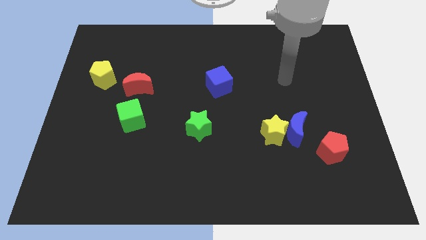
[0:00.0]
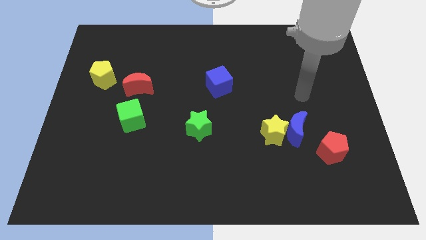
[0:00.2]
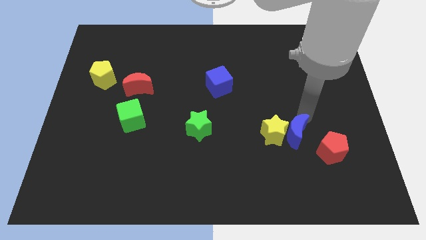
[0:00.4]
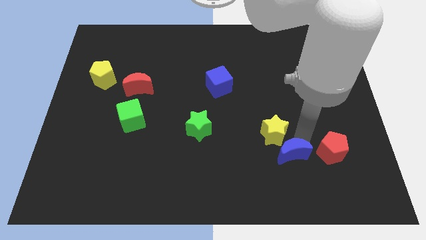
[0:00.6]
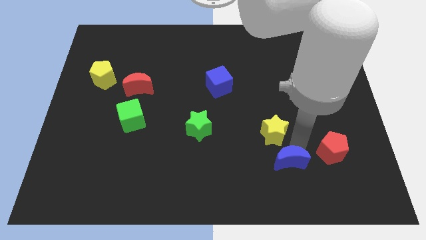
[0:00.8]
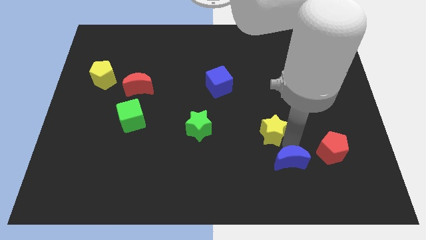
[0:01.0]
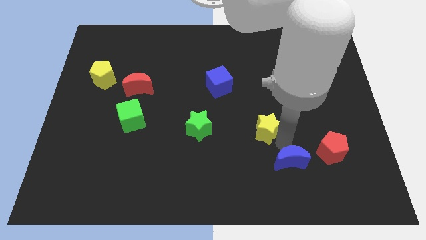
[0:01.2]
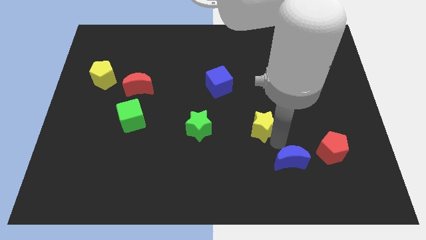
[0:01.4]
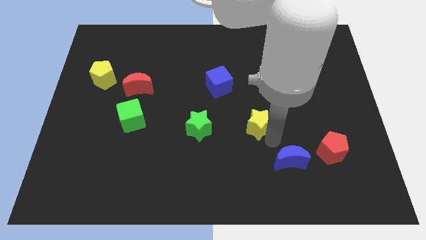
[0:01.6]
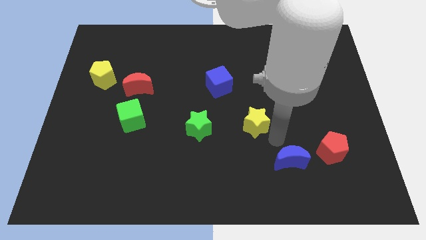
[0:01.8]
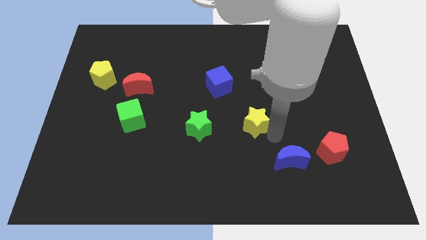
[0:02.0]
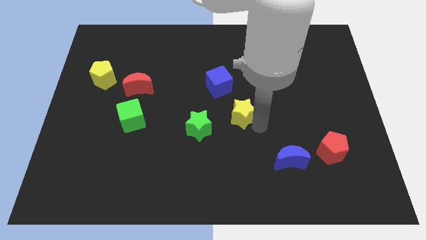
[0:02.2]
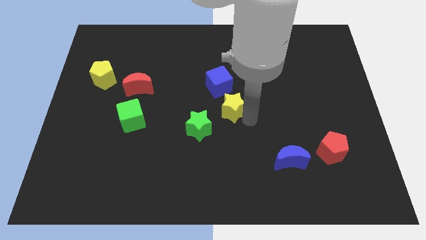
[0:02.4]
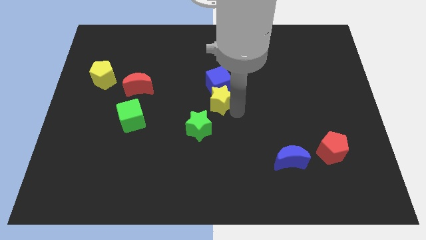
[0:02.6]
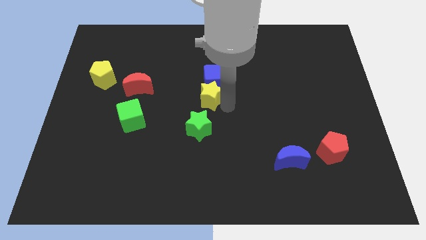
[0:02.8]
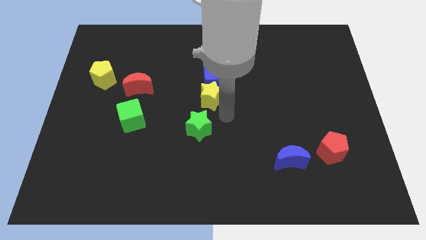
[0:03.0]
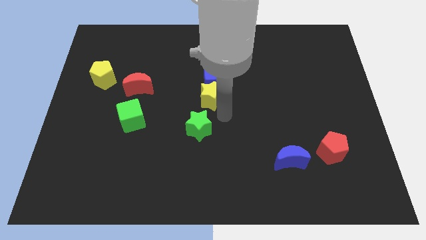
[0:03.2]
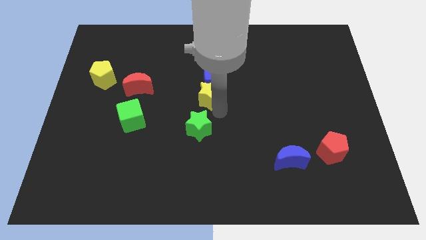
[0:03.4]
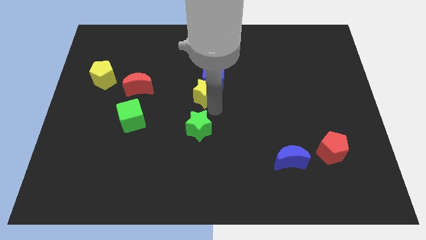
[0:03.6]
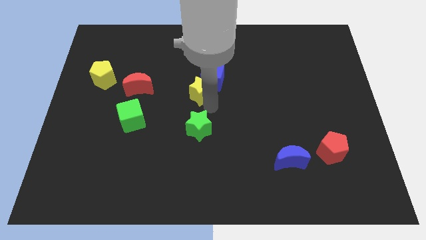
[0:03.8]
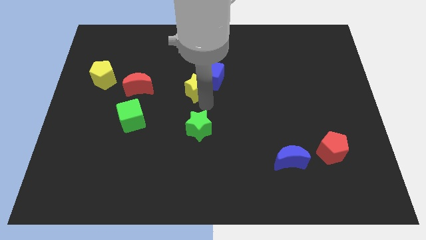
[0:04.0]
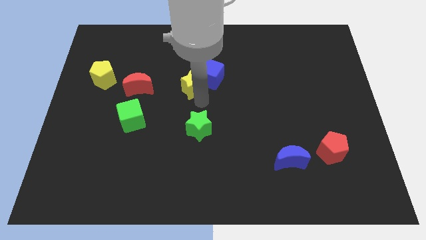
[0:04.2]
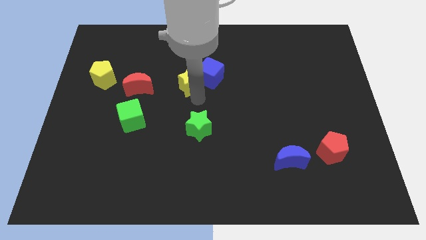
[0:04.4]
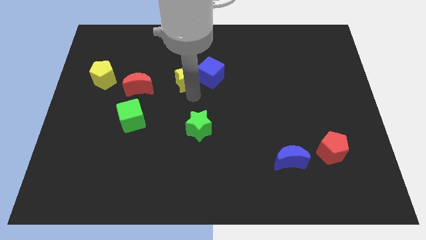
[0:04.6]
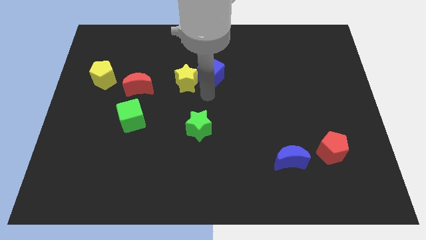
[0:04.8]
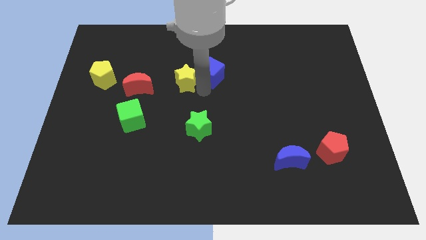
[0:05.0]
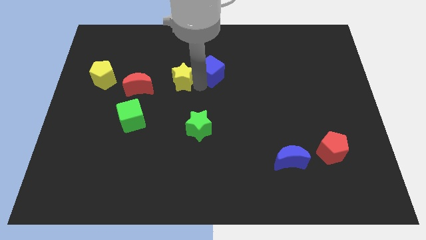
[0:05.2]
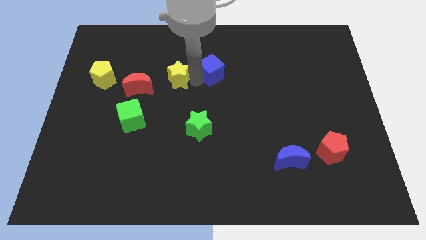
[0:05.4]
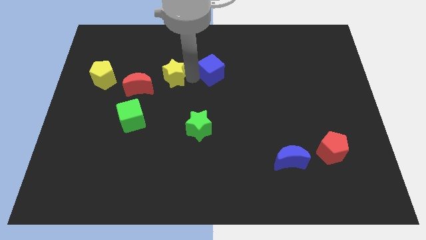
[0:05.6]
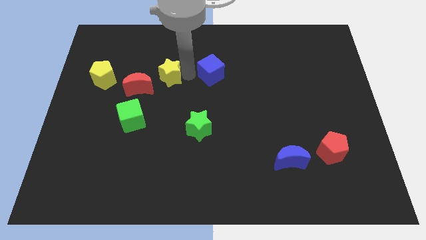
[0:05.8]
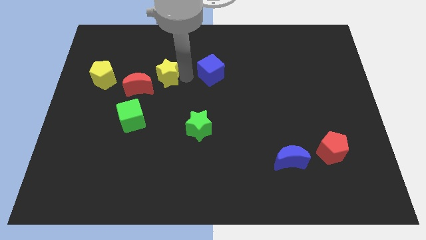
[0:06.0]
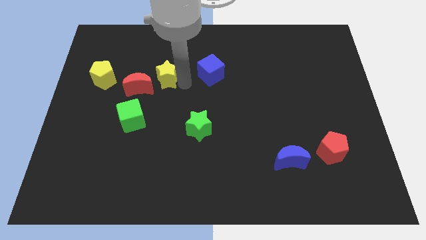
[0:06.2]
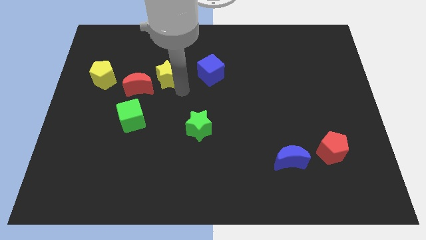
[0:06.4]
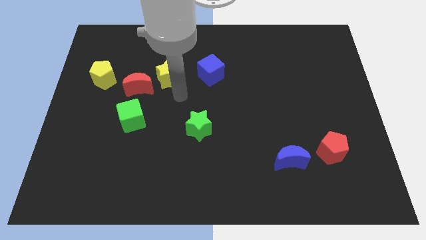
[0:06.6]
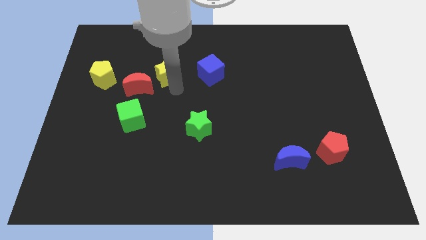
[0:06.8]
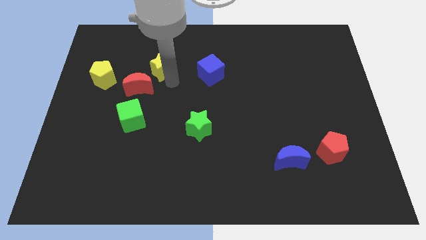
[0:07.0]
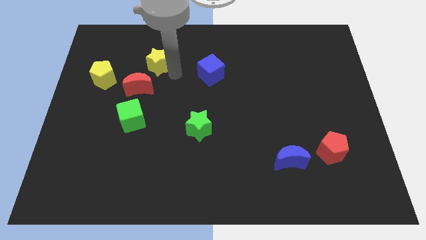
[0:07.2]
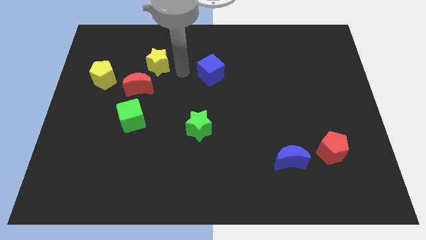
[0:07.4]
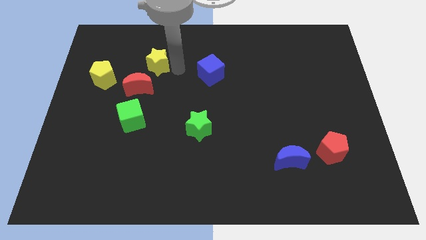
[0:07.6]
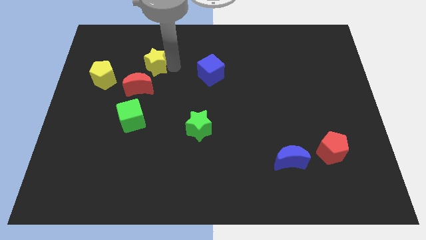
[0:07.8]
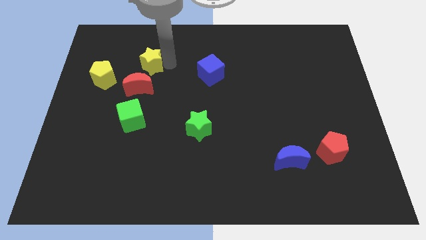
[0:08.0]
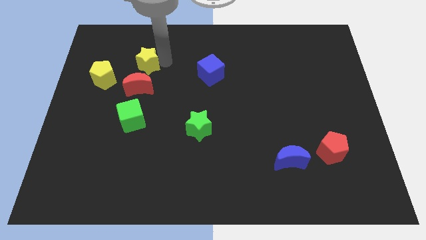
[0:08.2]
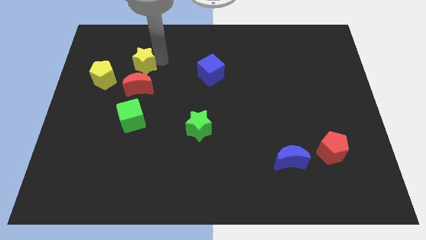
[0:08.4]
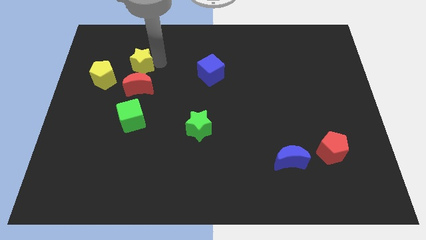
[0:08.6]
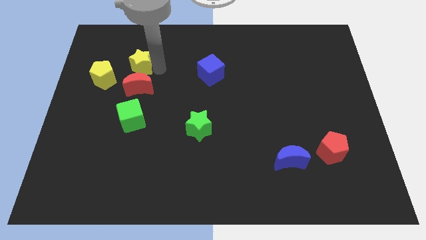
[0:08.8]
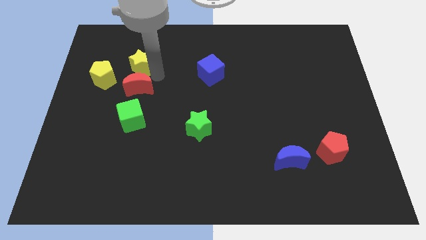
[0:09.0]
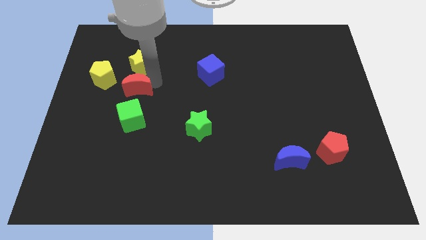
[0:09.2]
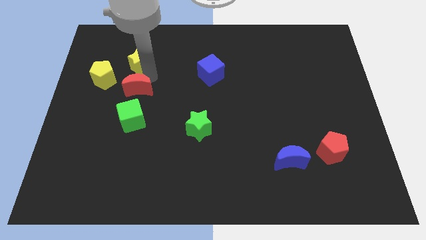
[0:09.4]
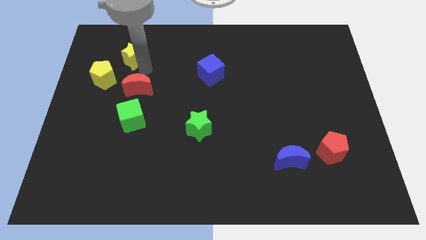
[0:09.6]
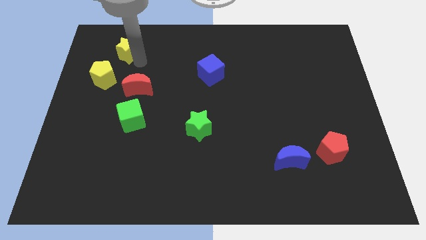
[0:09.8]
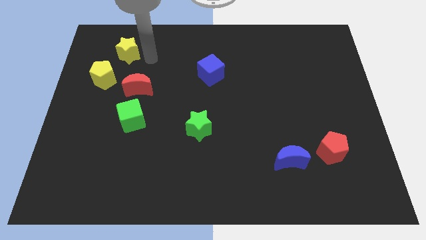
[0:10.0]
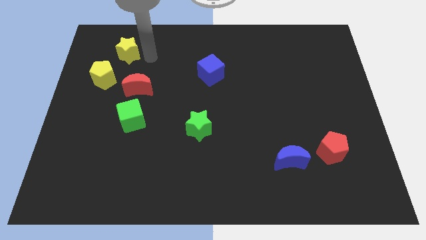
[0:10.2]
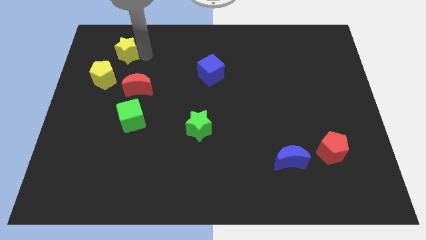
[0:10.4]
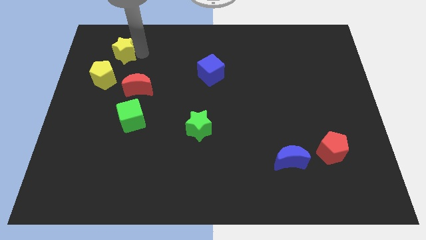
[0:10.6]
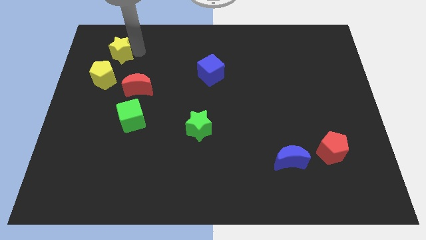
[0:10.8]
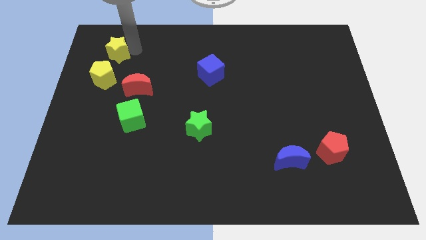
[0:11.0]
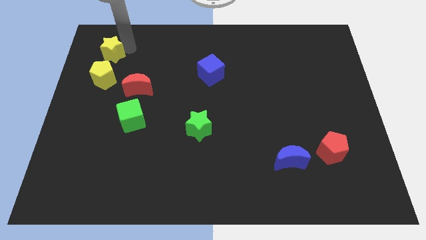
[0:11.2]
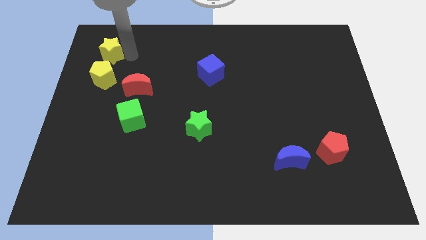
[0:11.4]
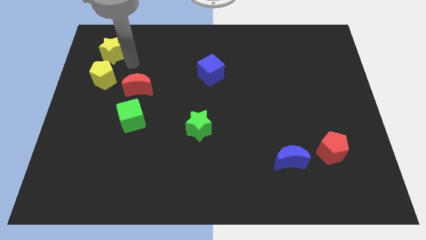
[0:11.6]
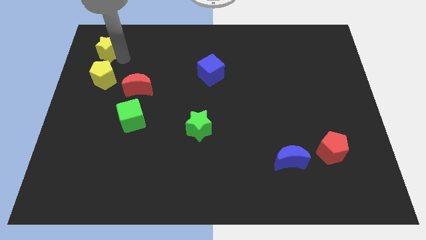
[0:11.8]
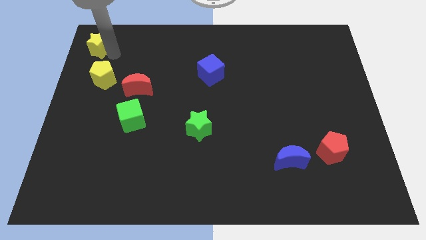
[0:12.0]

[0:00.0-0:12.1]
move the yellow star to the top left

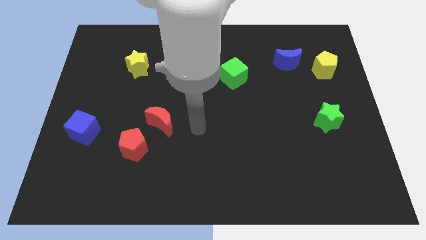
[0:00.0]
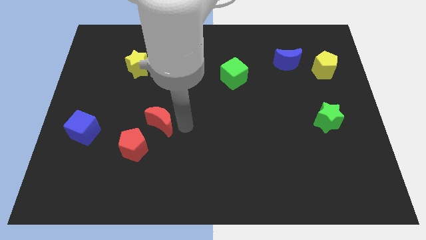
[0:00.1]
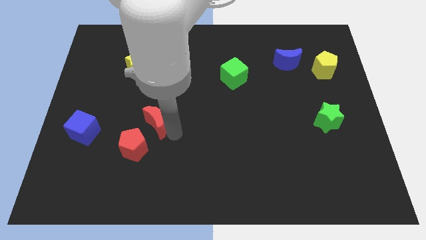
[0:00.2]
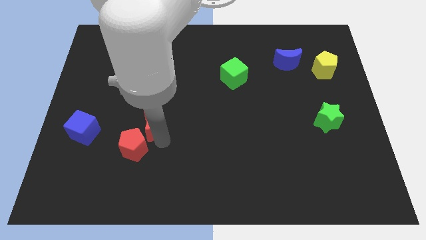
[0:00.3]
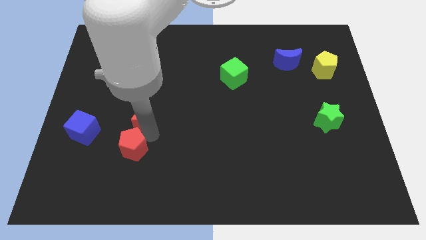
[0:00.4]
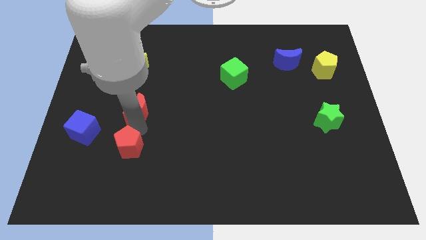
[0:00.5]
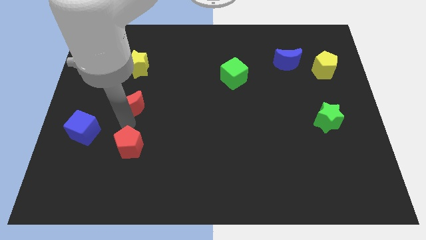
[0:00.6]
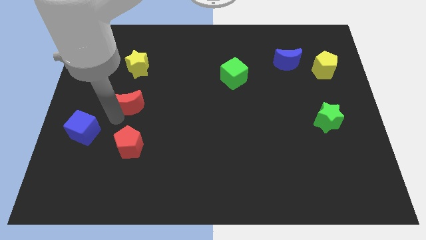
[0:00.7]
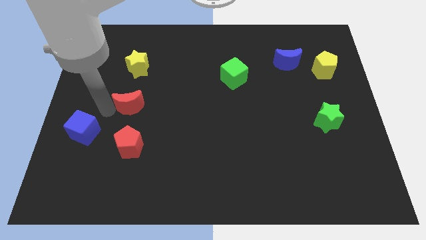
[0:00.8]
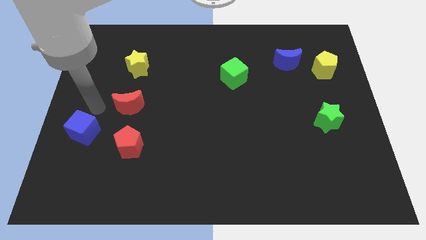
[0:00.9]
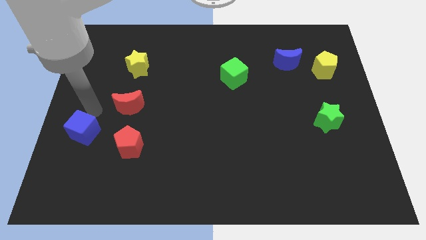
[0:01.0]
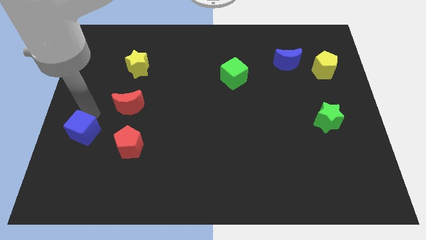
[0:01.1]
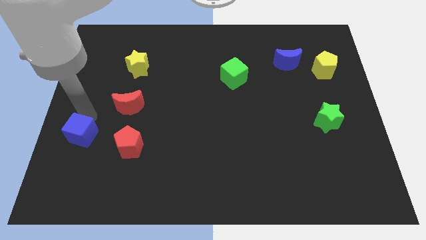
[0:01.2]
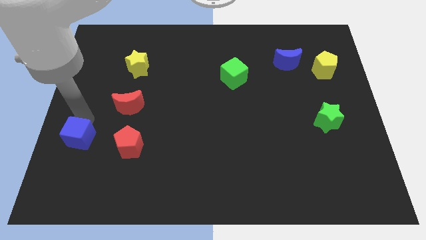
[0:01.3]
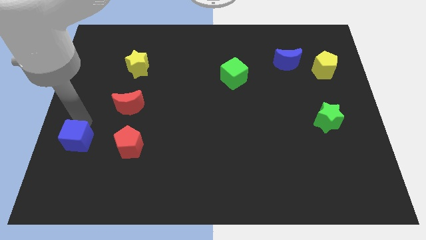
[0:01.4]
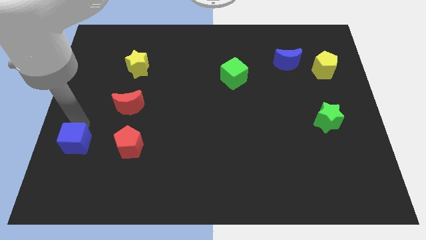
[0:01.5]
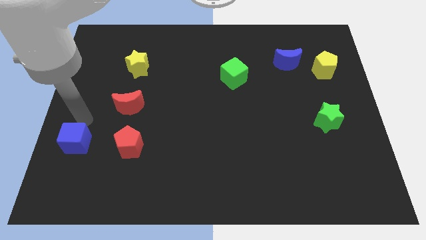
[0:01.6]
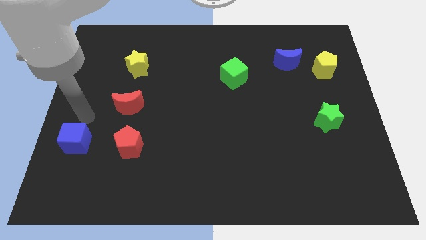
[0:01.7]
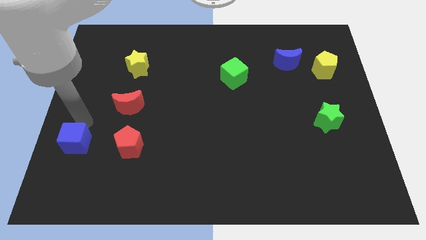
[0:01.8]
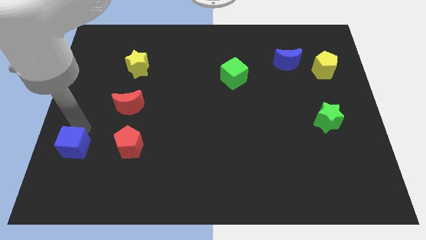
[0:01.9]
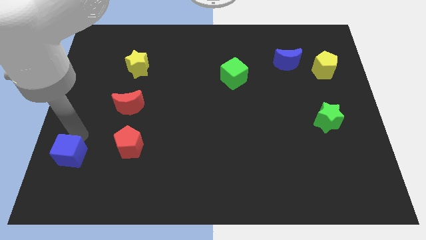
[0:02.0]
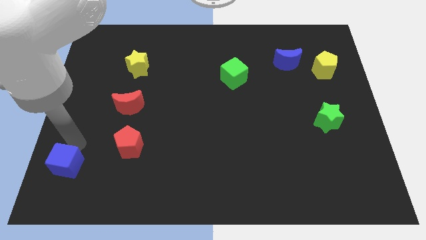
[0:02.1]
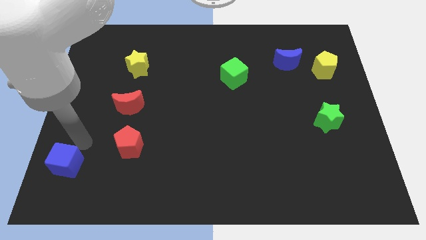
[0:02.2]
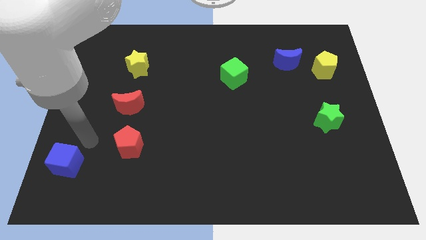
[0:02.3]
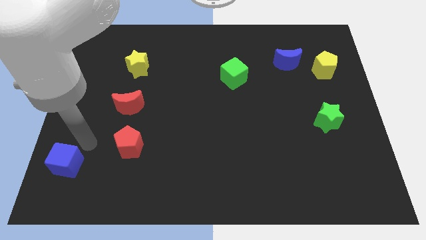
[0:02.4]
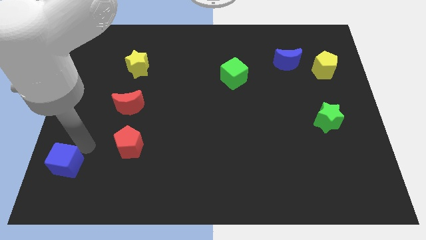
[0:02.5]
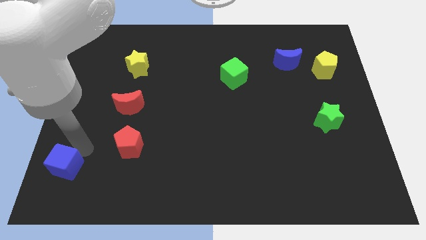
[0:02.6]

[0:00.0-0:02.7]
push the blue cube to the lower left corner
